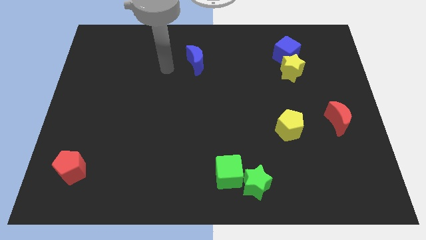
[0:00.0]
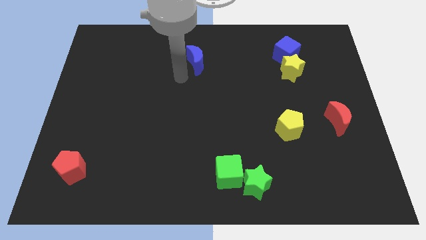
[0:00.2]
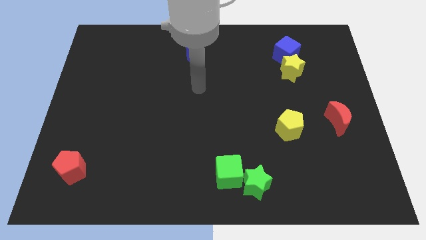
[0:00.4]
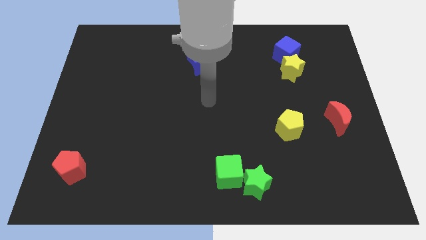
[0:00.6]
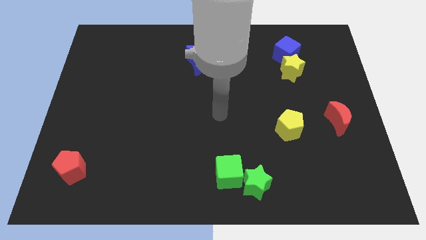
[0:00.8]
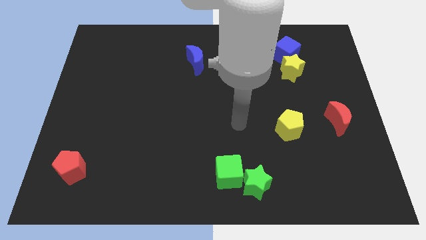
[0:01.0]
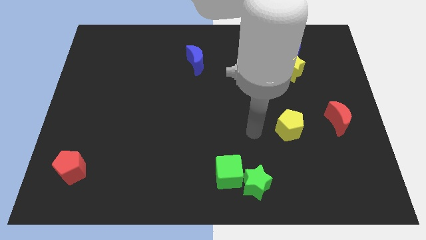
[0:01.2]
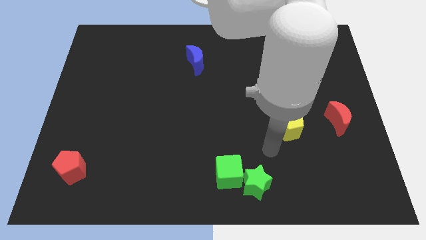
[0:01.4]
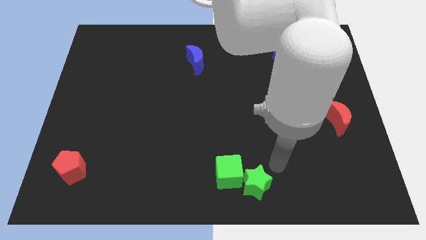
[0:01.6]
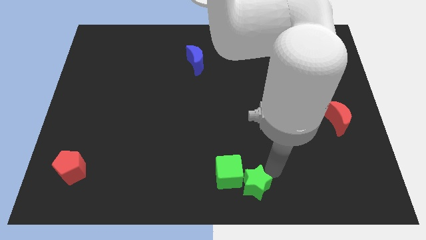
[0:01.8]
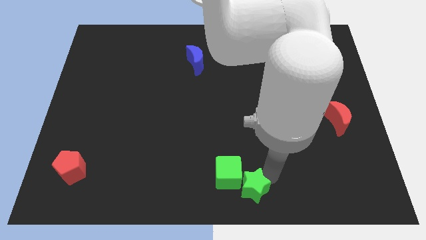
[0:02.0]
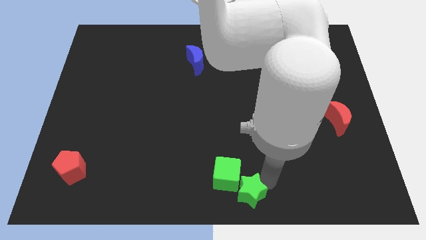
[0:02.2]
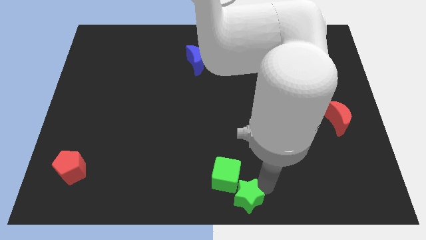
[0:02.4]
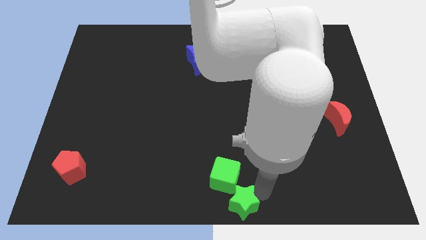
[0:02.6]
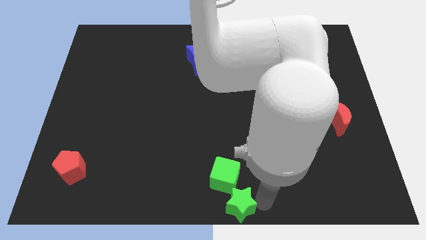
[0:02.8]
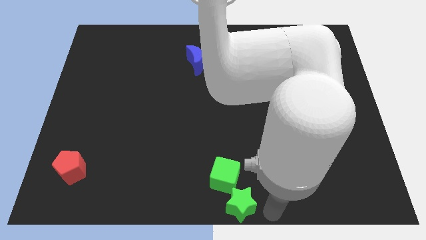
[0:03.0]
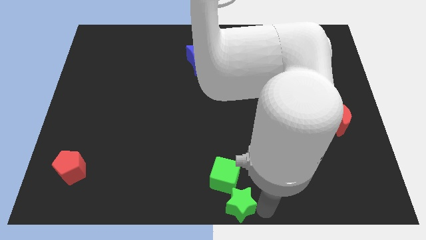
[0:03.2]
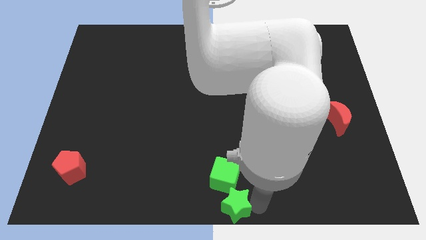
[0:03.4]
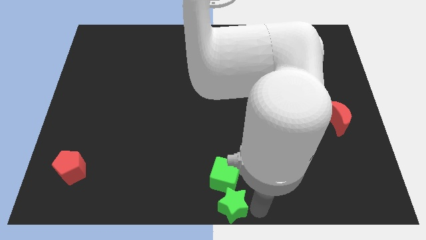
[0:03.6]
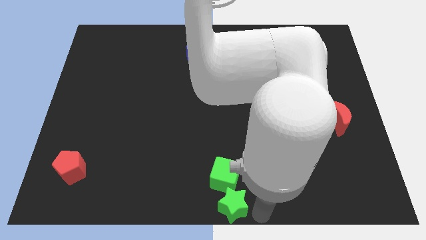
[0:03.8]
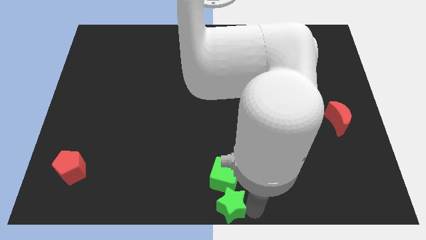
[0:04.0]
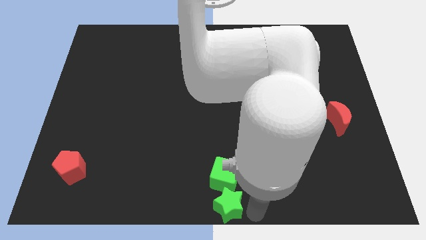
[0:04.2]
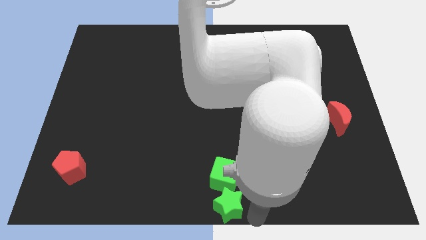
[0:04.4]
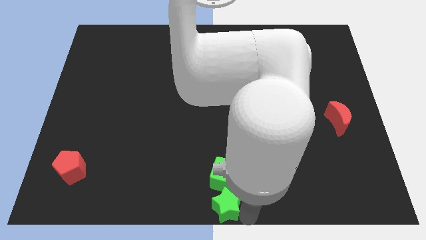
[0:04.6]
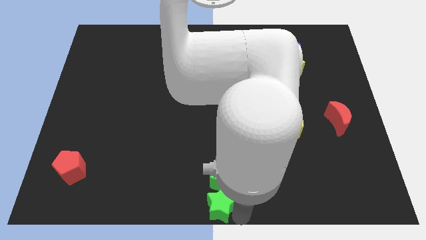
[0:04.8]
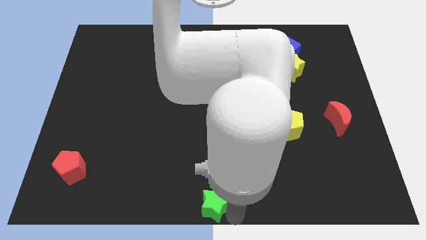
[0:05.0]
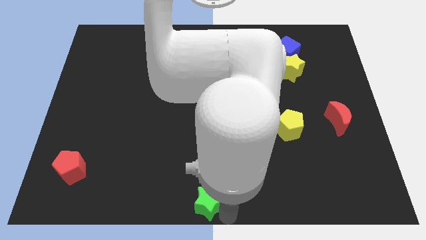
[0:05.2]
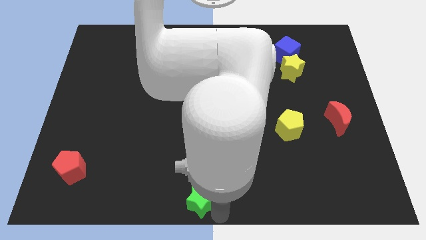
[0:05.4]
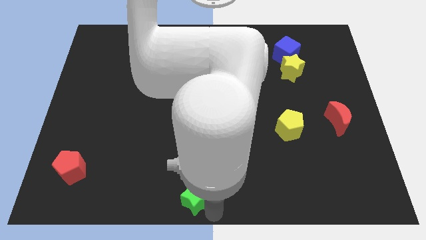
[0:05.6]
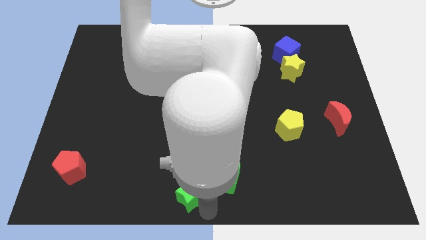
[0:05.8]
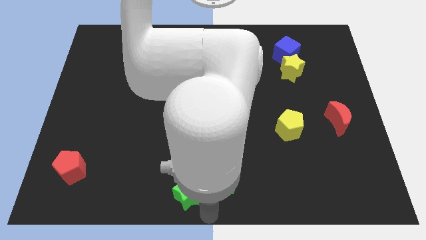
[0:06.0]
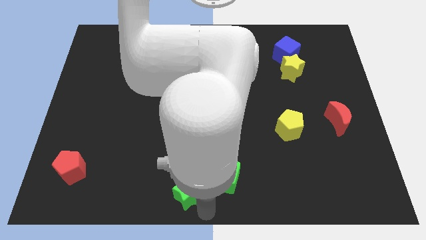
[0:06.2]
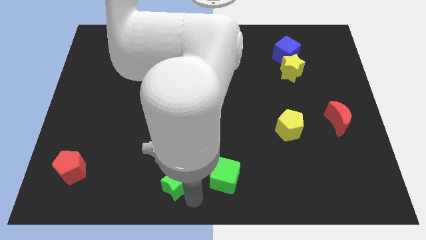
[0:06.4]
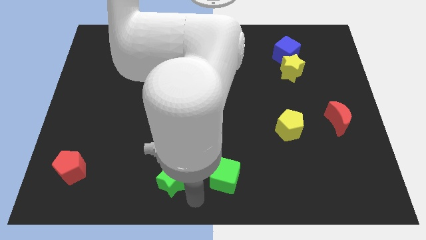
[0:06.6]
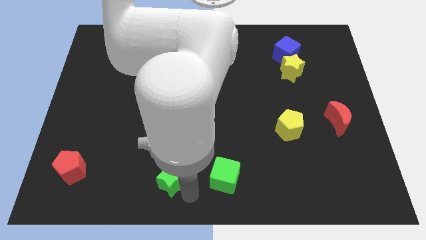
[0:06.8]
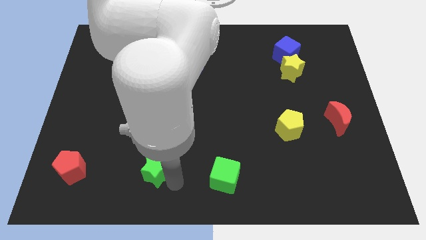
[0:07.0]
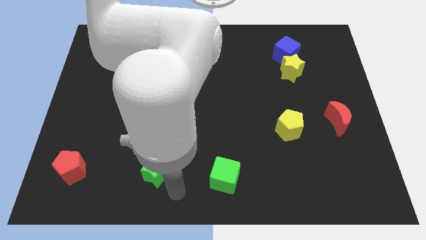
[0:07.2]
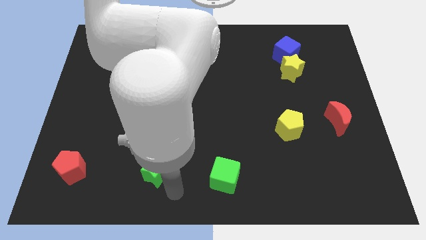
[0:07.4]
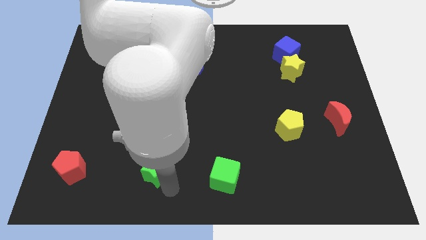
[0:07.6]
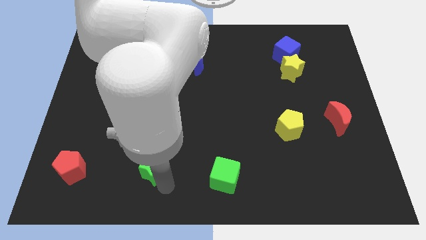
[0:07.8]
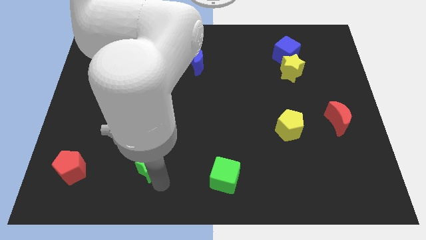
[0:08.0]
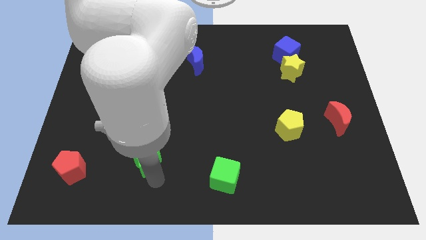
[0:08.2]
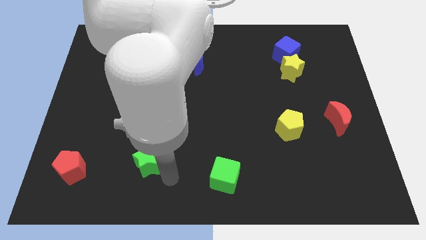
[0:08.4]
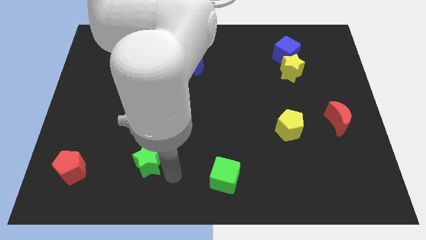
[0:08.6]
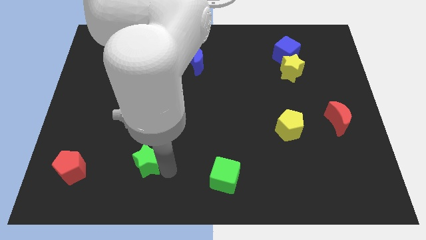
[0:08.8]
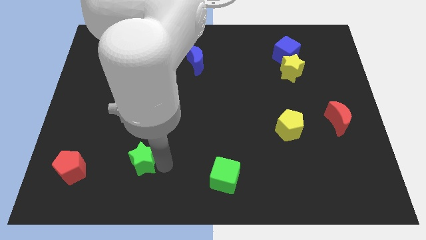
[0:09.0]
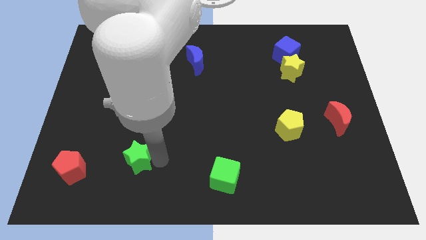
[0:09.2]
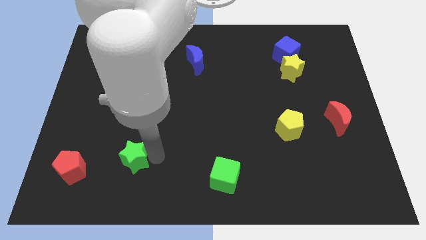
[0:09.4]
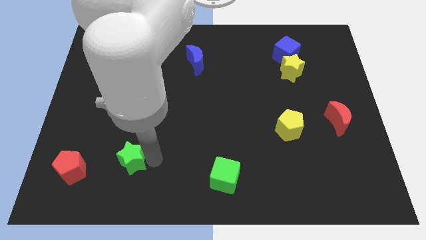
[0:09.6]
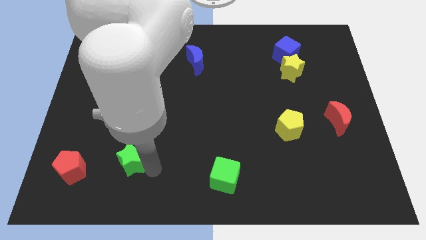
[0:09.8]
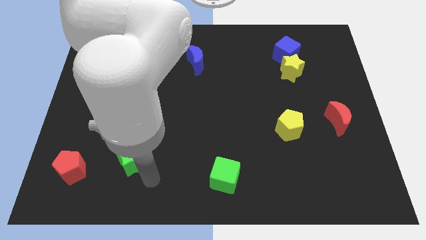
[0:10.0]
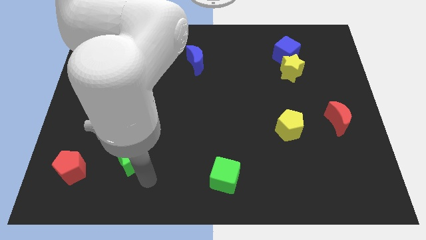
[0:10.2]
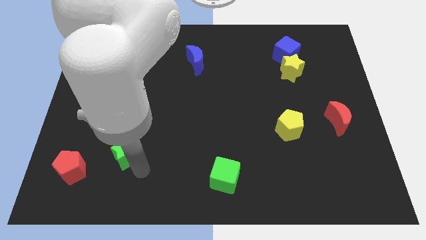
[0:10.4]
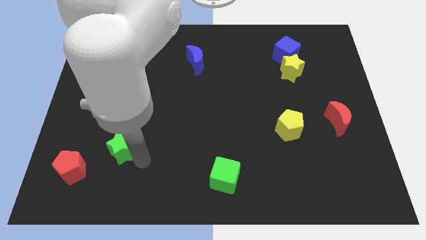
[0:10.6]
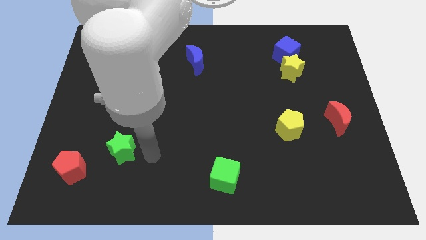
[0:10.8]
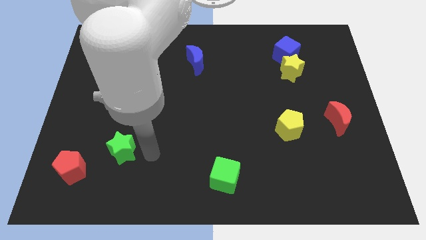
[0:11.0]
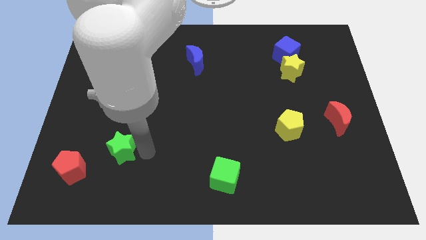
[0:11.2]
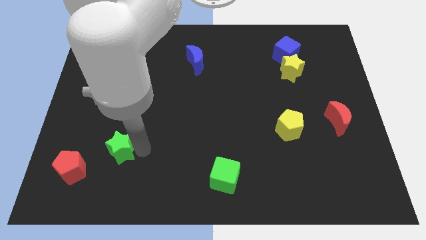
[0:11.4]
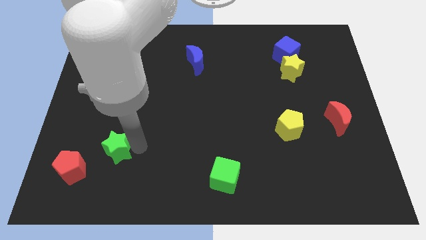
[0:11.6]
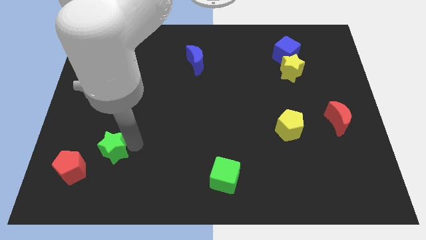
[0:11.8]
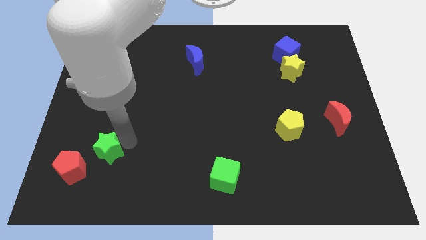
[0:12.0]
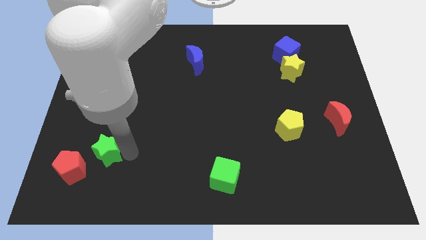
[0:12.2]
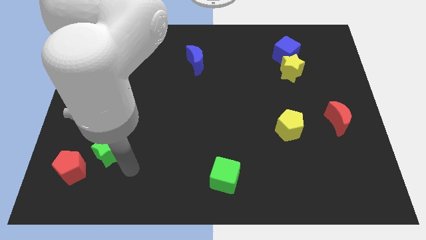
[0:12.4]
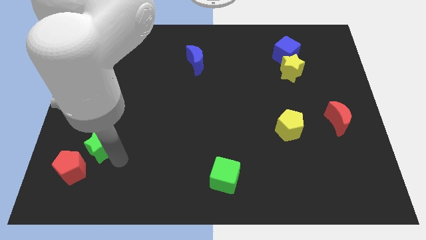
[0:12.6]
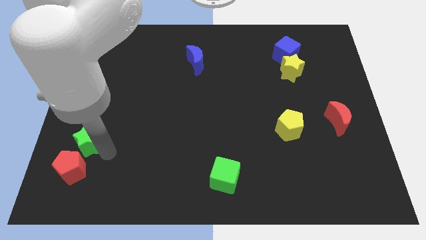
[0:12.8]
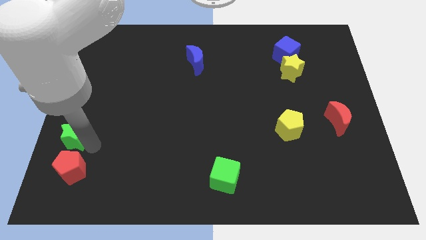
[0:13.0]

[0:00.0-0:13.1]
push the green star to the left side of the board
